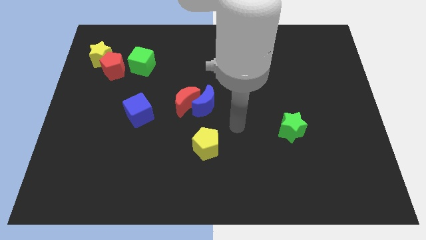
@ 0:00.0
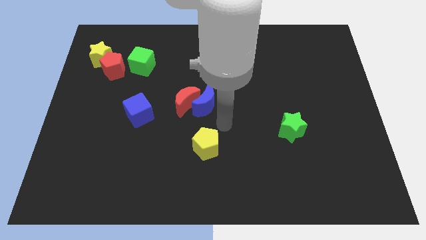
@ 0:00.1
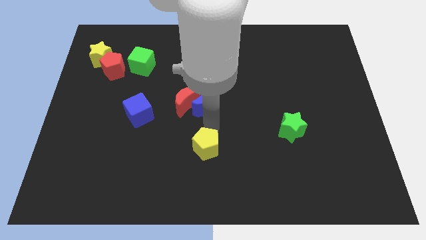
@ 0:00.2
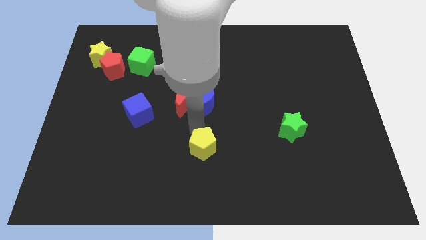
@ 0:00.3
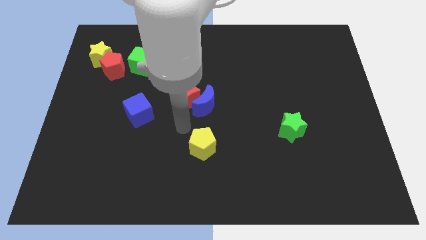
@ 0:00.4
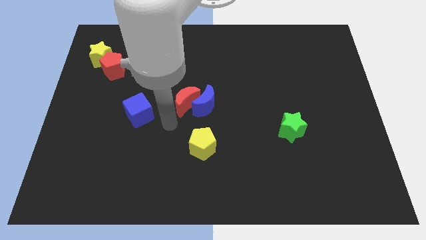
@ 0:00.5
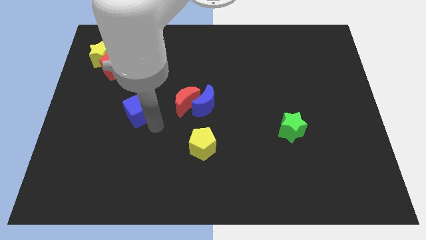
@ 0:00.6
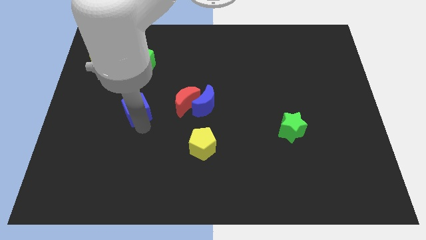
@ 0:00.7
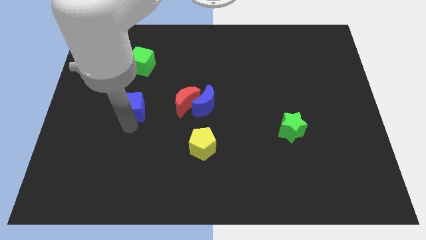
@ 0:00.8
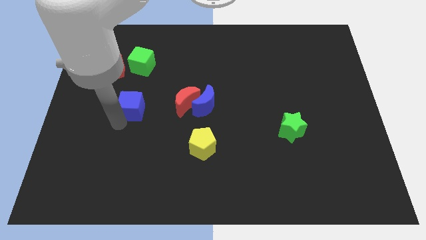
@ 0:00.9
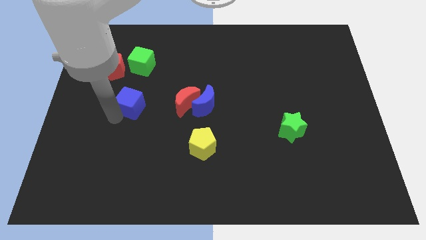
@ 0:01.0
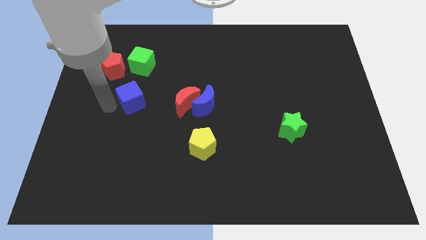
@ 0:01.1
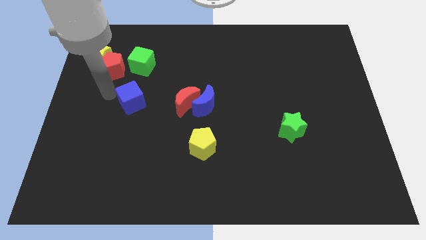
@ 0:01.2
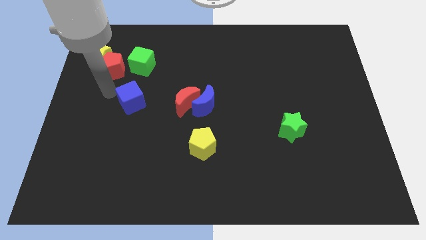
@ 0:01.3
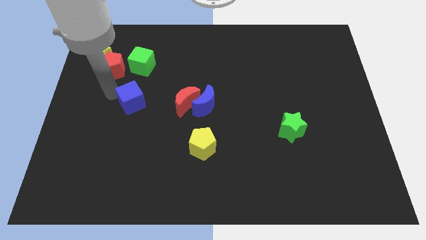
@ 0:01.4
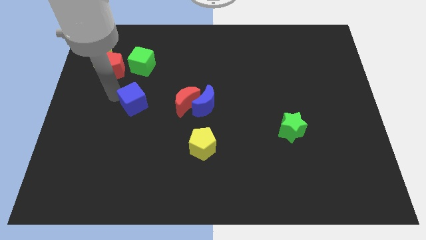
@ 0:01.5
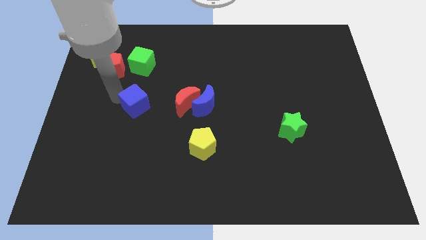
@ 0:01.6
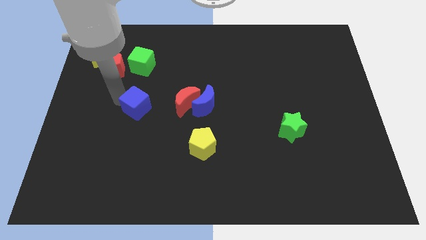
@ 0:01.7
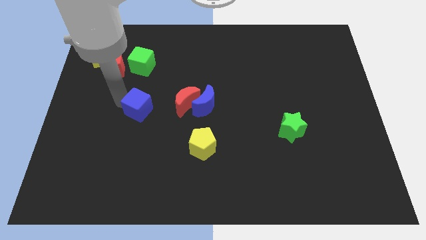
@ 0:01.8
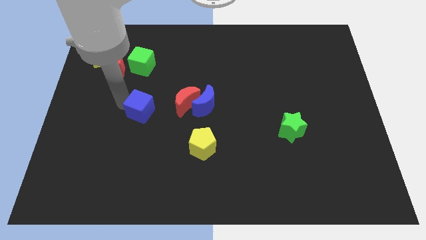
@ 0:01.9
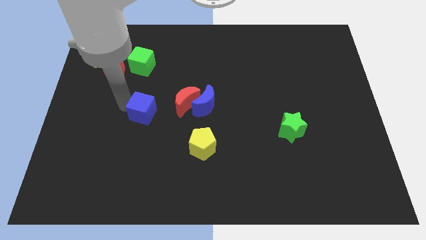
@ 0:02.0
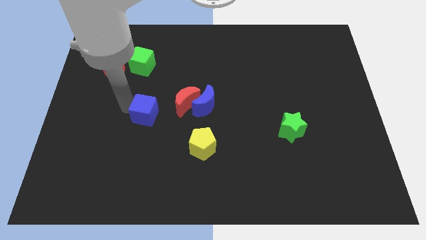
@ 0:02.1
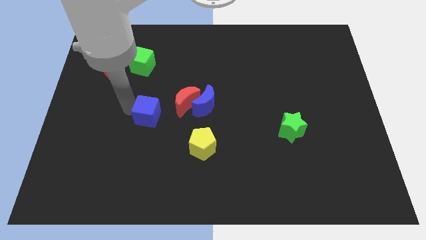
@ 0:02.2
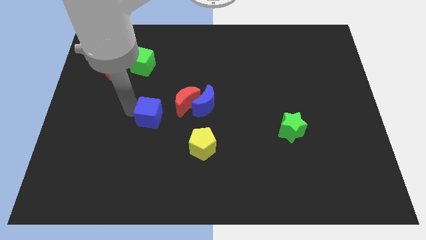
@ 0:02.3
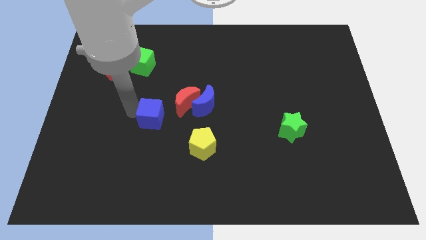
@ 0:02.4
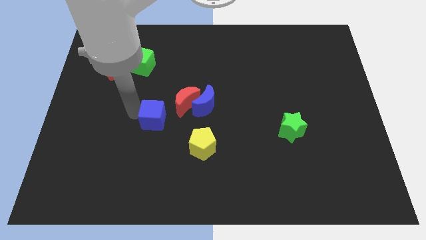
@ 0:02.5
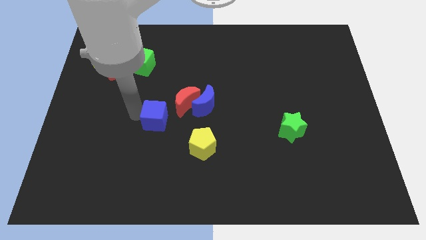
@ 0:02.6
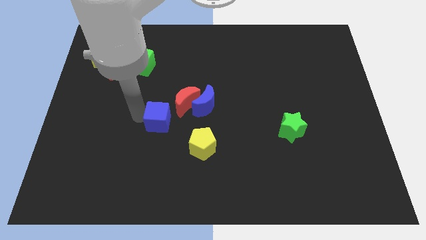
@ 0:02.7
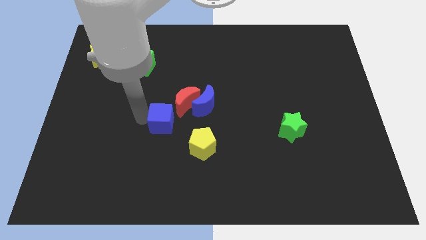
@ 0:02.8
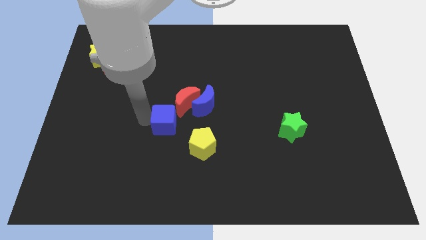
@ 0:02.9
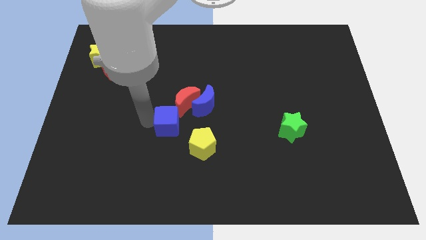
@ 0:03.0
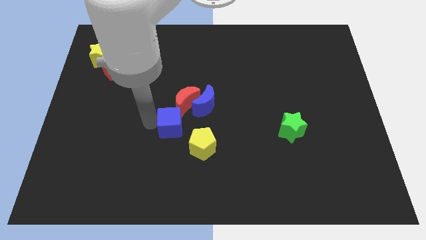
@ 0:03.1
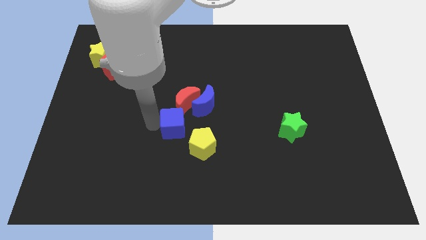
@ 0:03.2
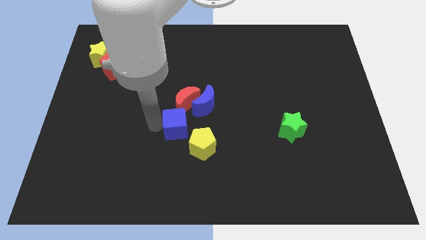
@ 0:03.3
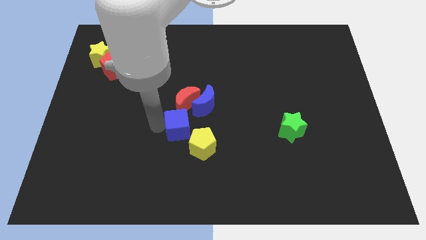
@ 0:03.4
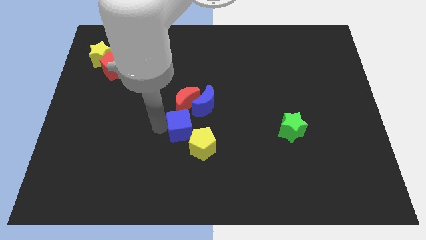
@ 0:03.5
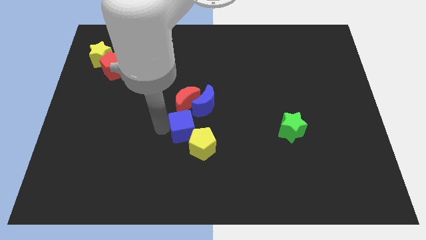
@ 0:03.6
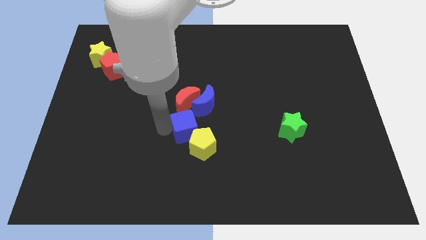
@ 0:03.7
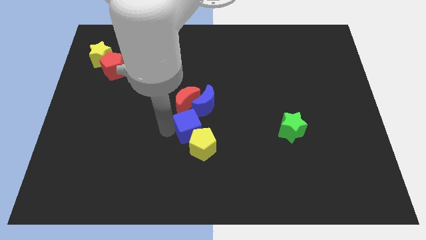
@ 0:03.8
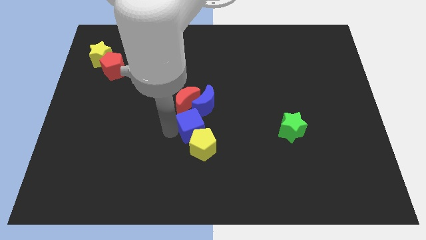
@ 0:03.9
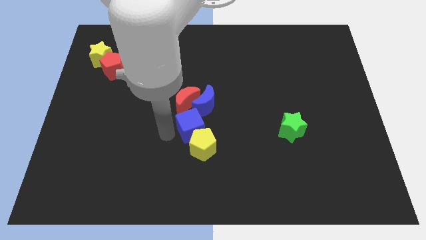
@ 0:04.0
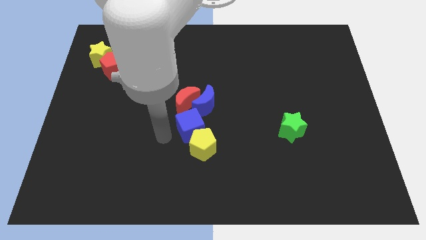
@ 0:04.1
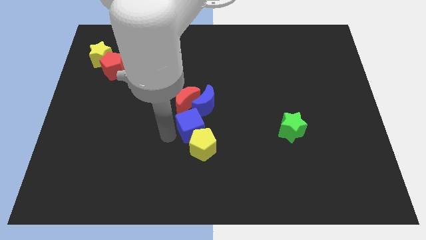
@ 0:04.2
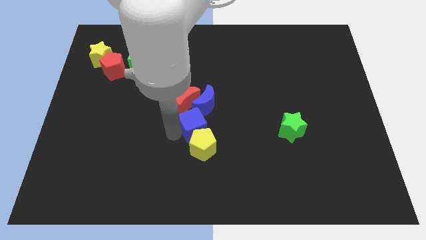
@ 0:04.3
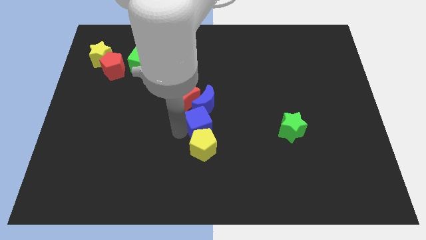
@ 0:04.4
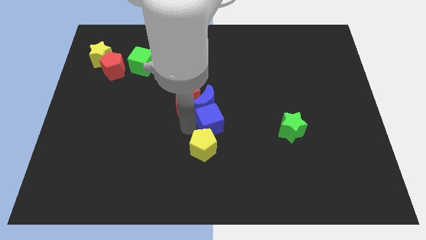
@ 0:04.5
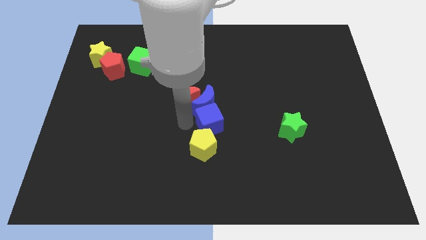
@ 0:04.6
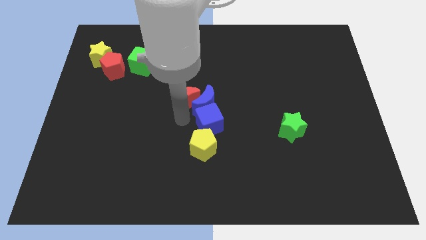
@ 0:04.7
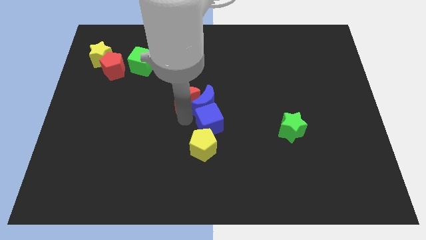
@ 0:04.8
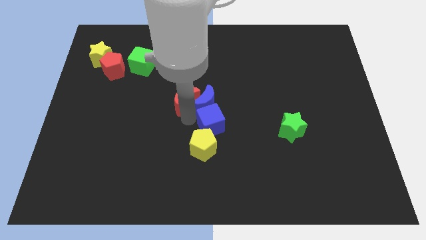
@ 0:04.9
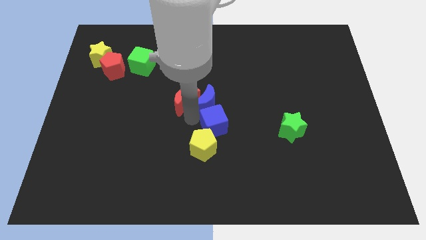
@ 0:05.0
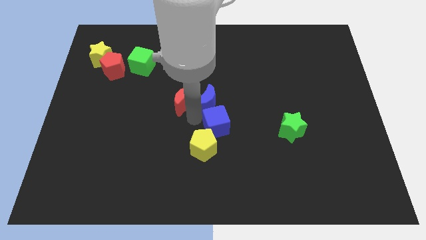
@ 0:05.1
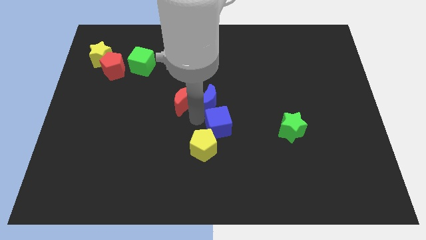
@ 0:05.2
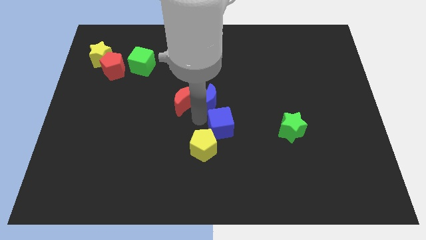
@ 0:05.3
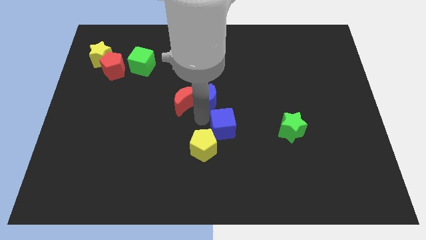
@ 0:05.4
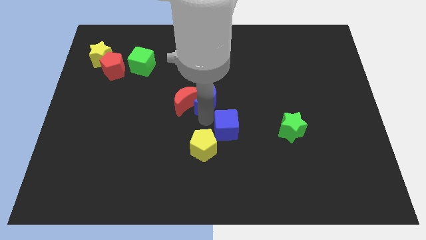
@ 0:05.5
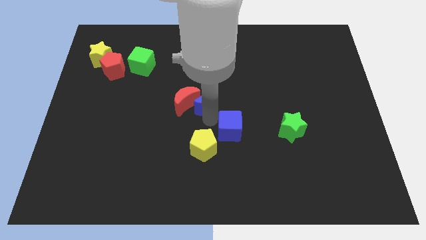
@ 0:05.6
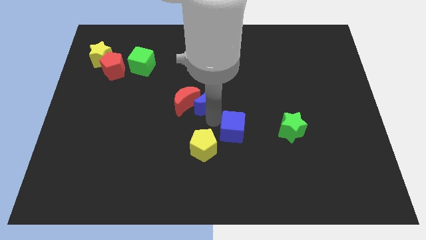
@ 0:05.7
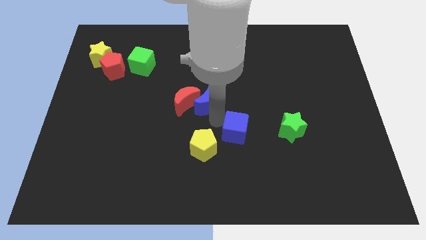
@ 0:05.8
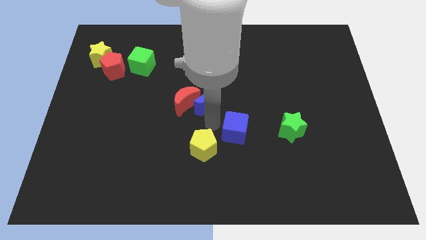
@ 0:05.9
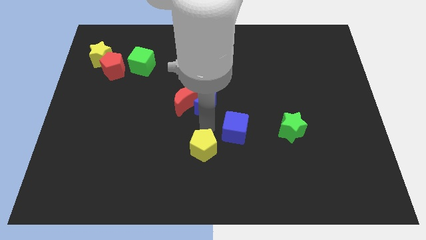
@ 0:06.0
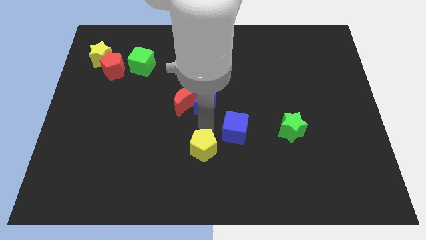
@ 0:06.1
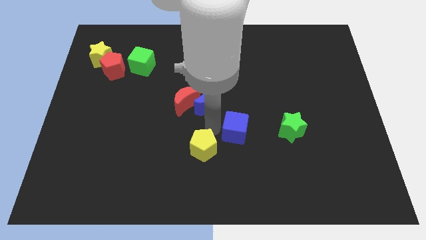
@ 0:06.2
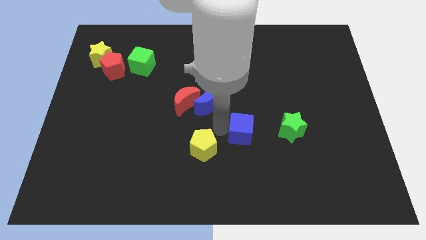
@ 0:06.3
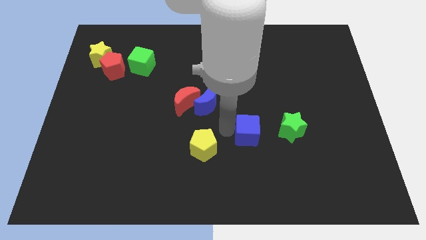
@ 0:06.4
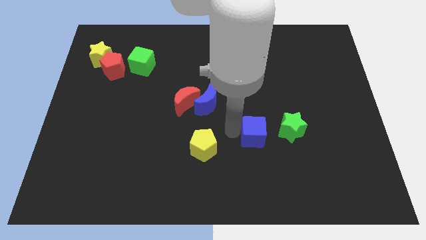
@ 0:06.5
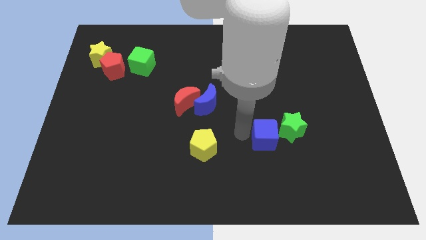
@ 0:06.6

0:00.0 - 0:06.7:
push the blue cube close to the green star
